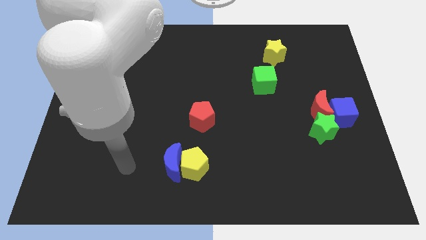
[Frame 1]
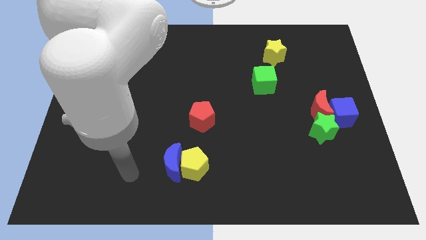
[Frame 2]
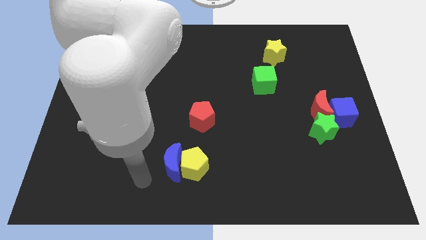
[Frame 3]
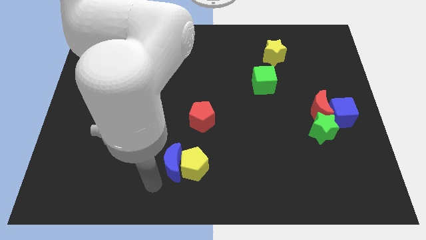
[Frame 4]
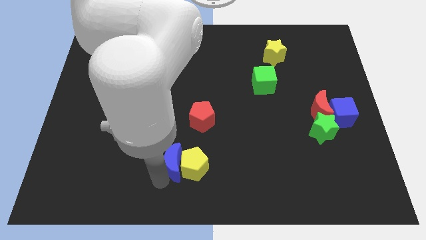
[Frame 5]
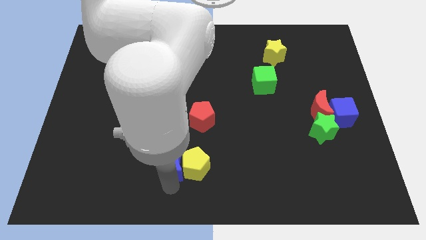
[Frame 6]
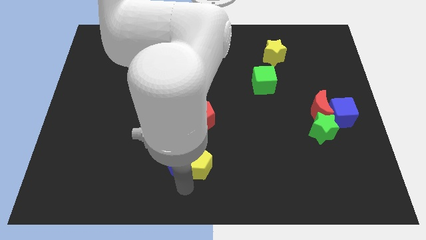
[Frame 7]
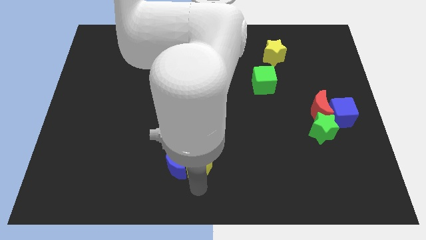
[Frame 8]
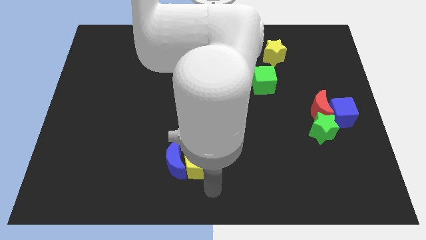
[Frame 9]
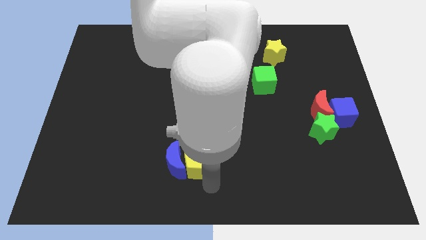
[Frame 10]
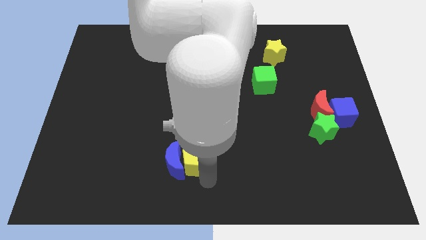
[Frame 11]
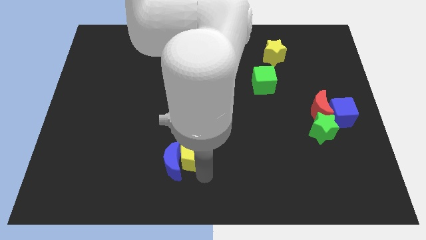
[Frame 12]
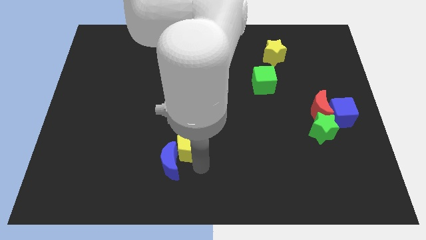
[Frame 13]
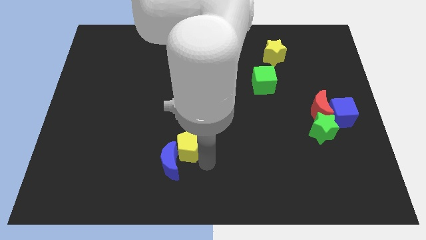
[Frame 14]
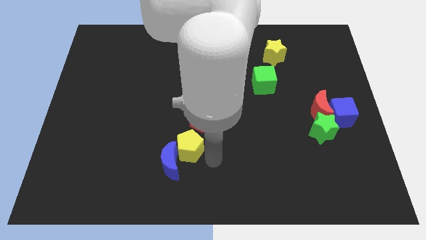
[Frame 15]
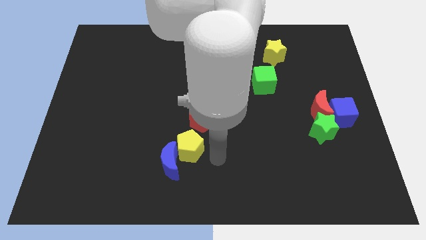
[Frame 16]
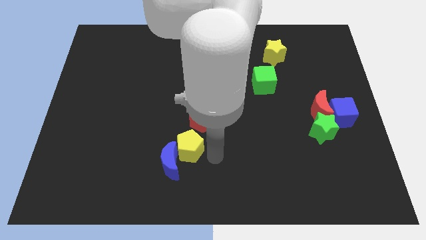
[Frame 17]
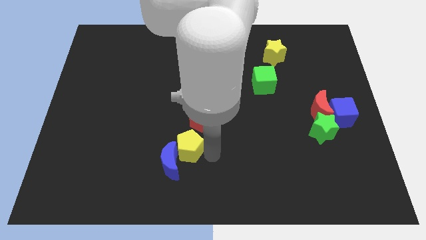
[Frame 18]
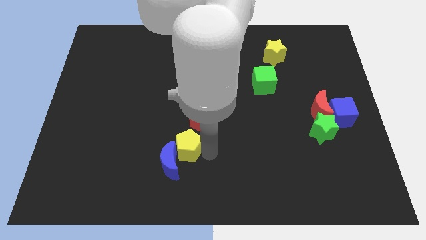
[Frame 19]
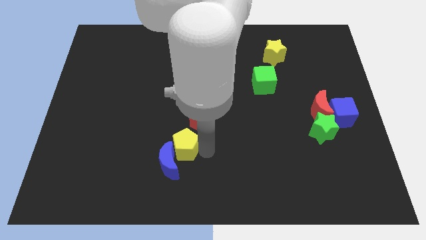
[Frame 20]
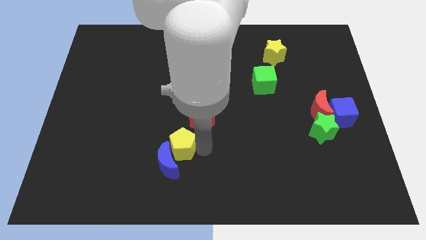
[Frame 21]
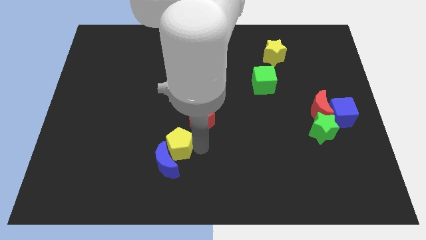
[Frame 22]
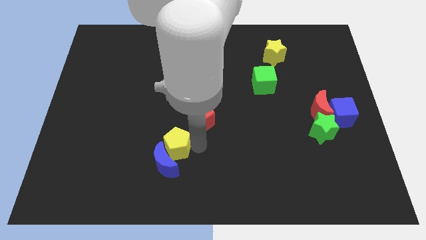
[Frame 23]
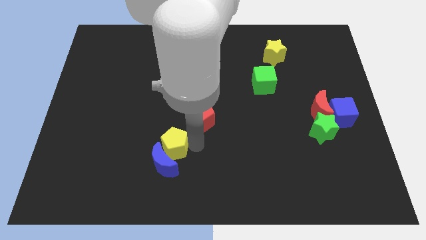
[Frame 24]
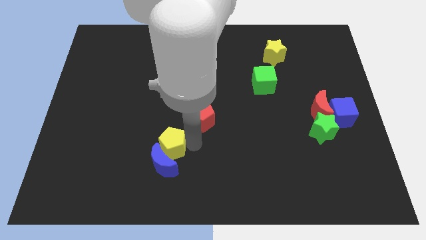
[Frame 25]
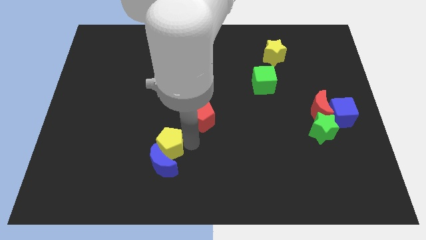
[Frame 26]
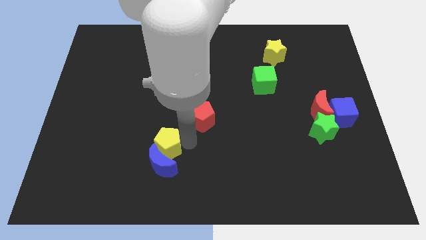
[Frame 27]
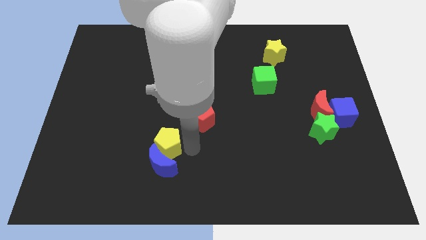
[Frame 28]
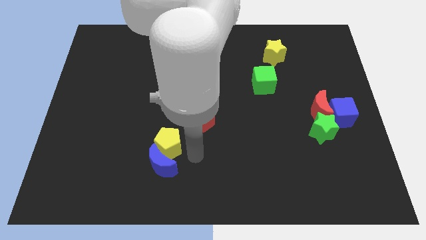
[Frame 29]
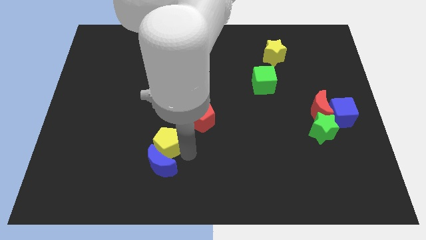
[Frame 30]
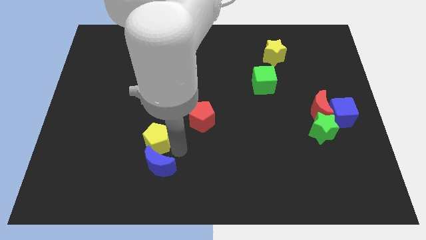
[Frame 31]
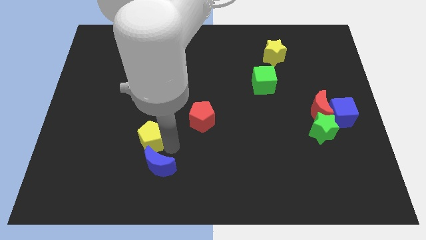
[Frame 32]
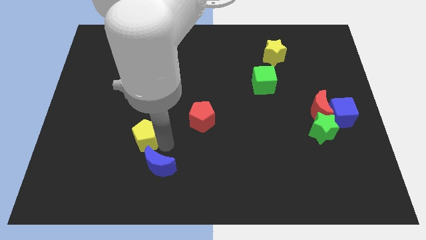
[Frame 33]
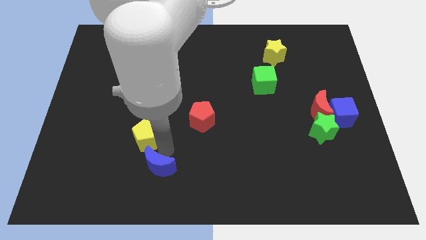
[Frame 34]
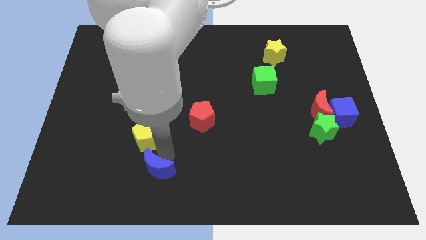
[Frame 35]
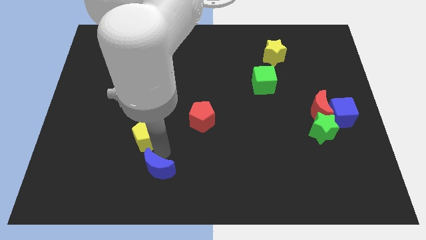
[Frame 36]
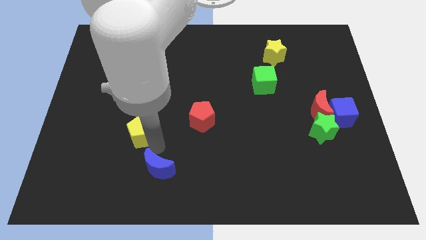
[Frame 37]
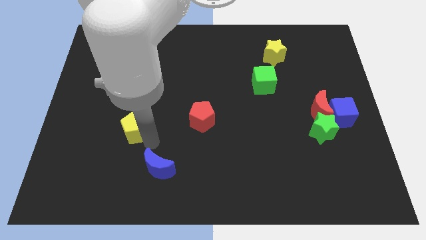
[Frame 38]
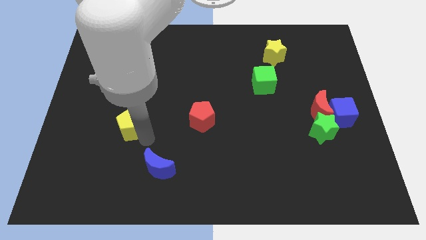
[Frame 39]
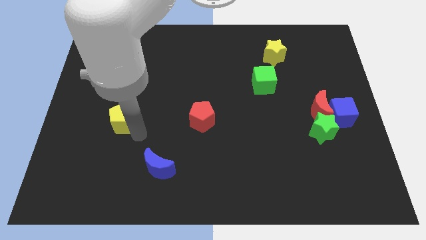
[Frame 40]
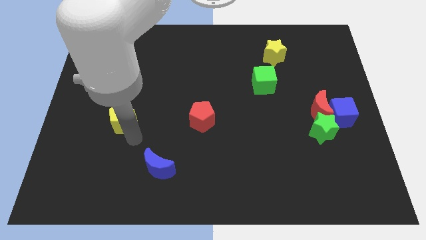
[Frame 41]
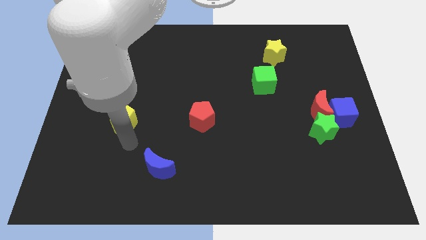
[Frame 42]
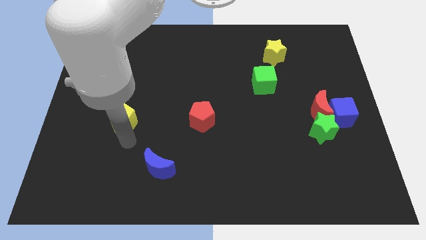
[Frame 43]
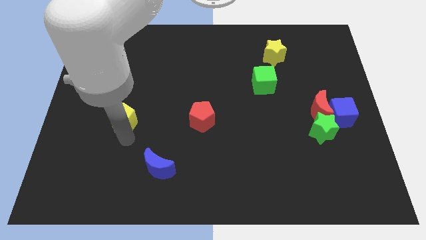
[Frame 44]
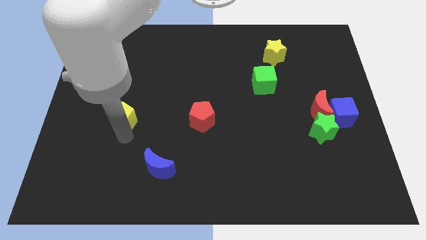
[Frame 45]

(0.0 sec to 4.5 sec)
slide the yellow pentagon upwards and left

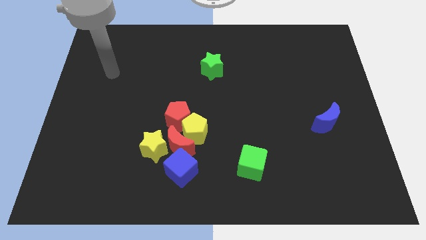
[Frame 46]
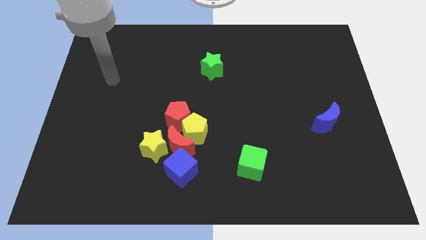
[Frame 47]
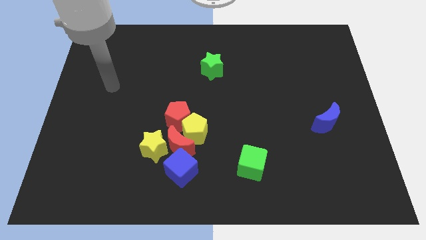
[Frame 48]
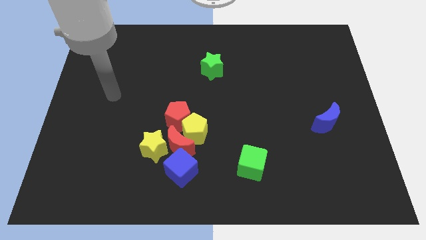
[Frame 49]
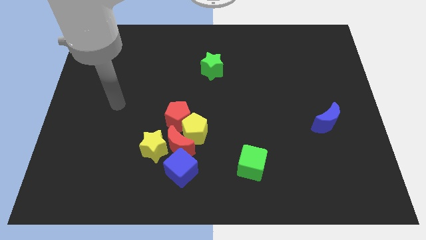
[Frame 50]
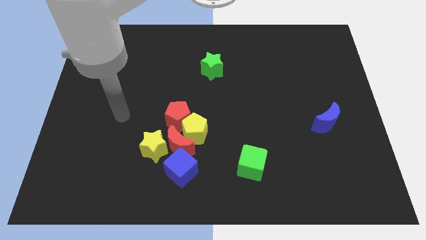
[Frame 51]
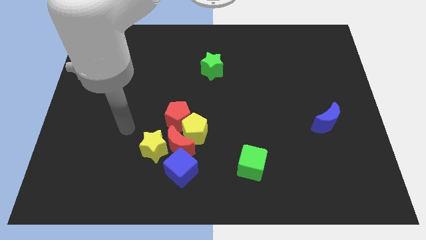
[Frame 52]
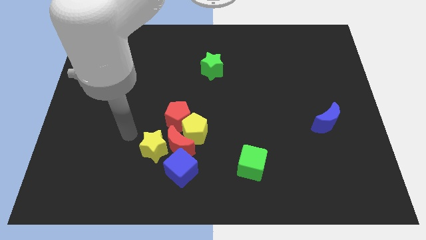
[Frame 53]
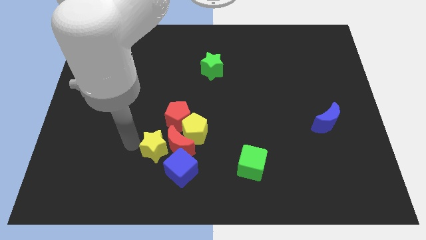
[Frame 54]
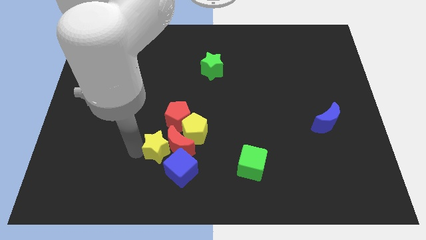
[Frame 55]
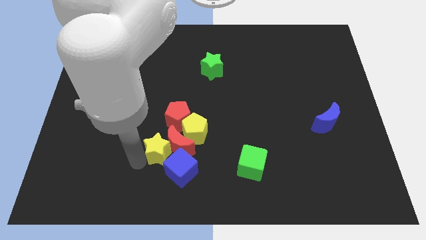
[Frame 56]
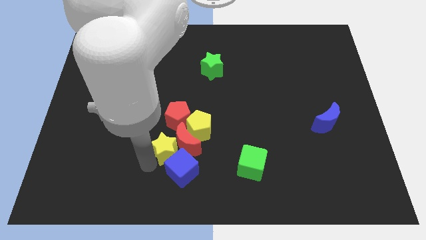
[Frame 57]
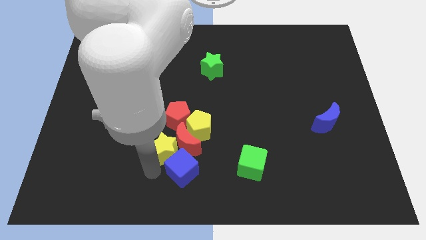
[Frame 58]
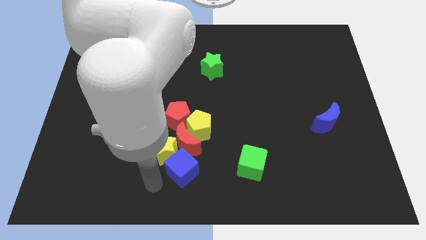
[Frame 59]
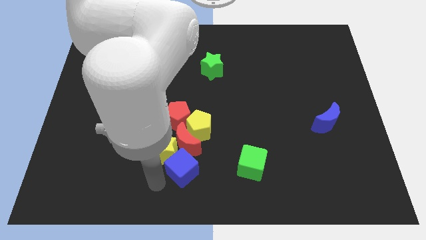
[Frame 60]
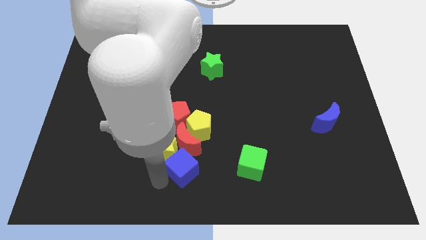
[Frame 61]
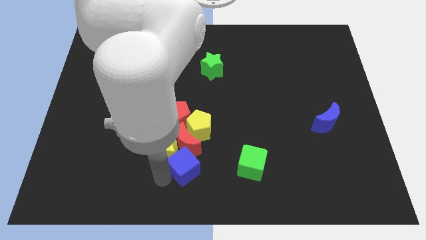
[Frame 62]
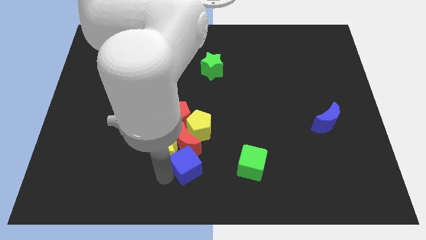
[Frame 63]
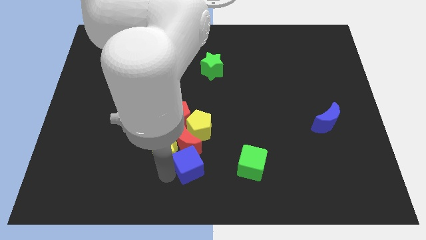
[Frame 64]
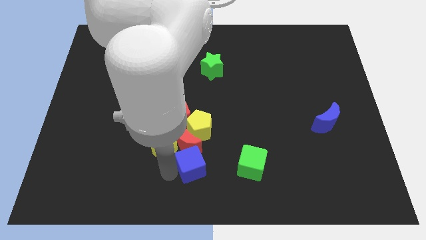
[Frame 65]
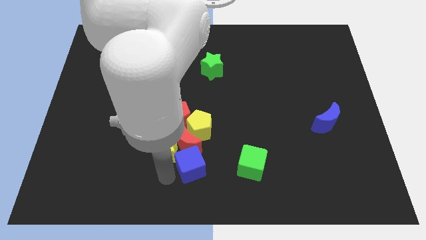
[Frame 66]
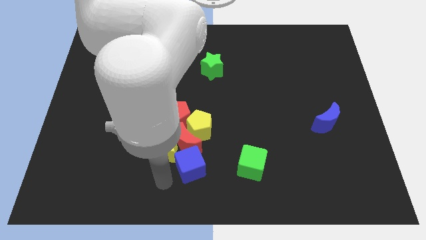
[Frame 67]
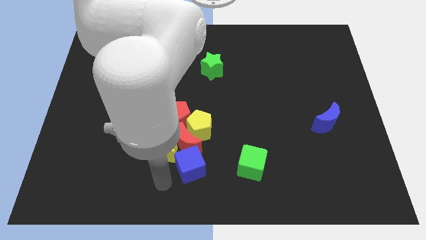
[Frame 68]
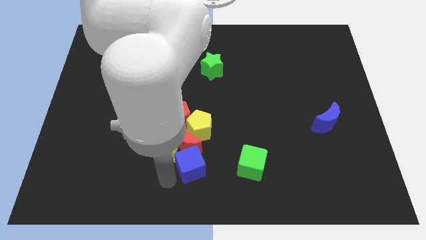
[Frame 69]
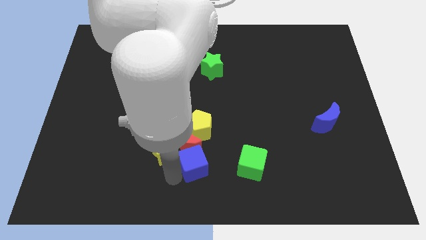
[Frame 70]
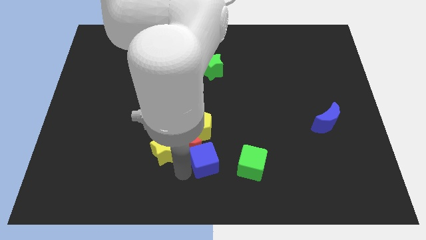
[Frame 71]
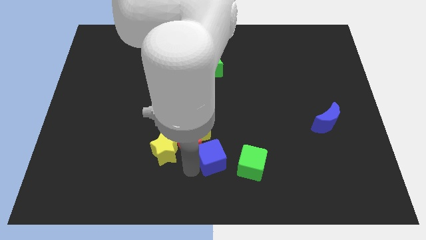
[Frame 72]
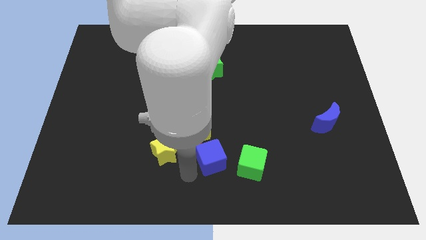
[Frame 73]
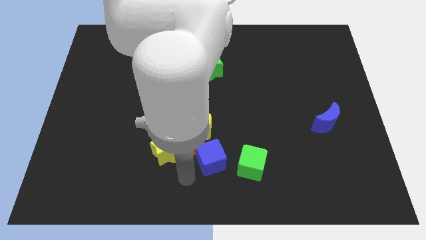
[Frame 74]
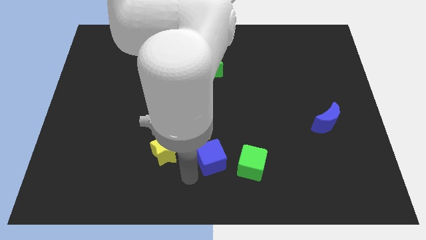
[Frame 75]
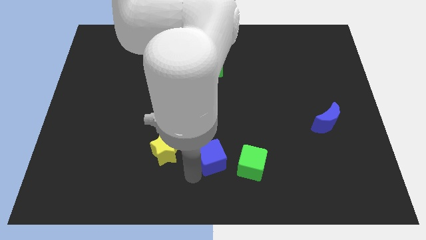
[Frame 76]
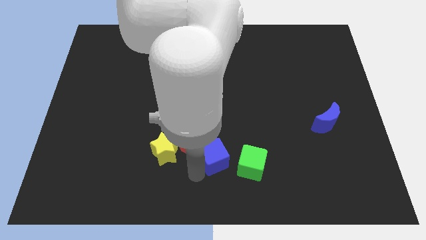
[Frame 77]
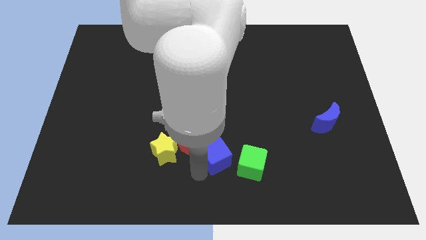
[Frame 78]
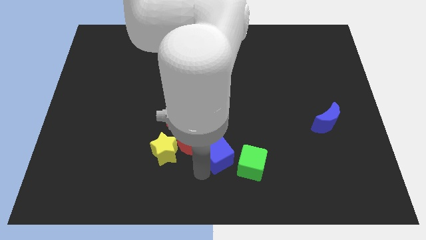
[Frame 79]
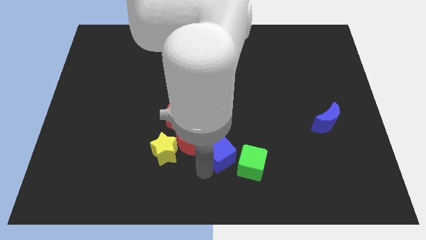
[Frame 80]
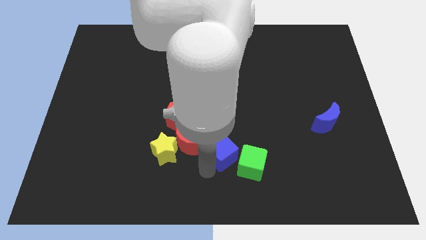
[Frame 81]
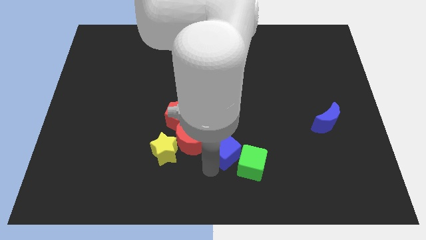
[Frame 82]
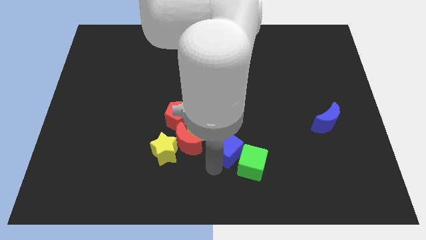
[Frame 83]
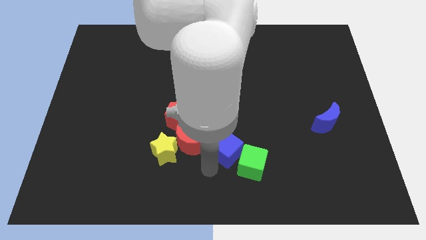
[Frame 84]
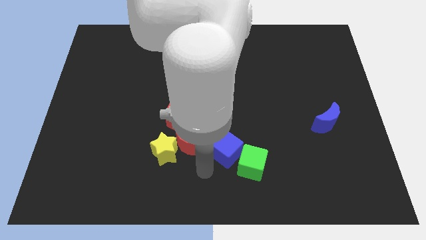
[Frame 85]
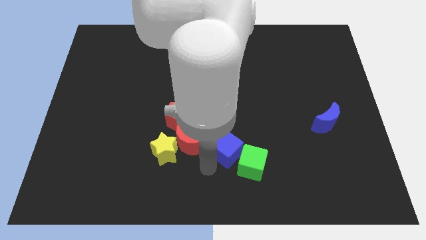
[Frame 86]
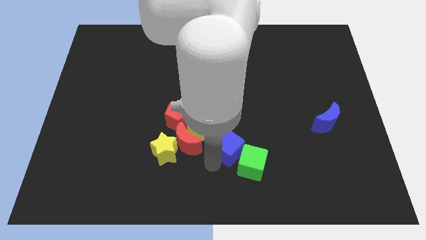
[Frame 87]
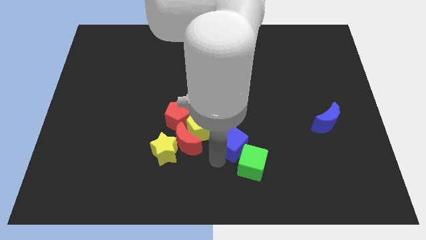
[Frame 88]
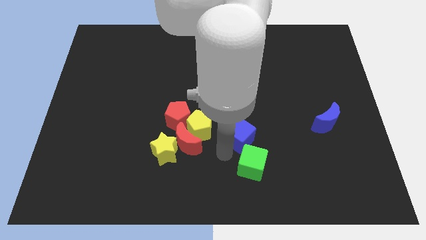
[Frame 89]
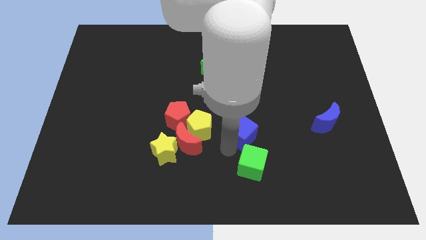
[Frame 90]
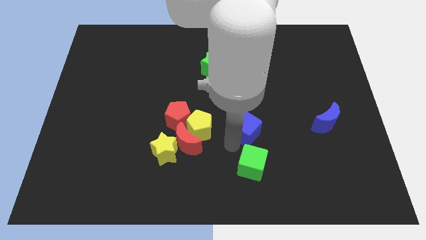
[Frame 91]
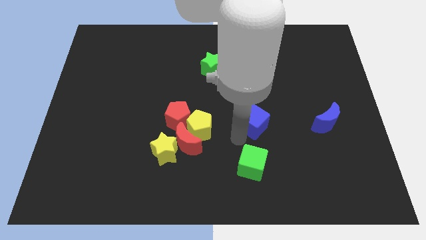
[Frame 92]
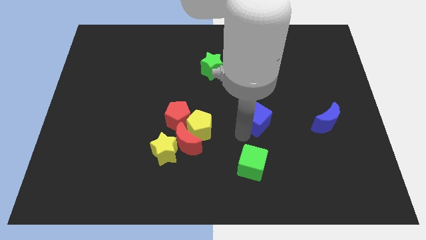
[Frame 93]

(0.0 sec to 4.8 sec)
slide the blue cube upwards and to the right
